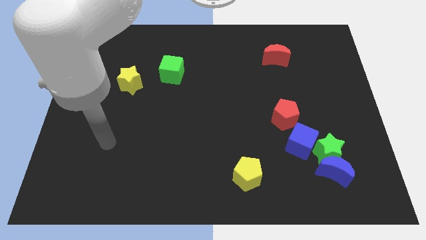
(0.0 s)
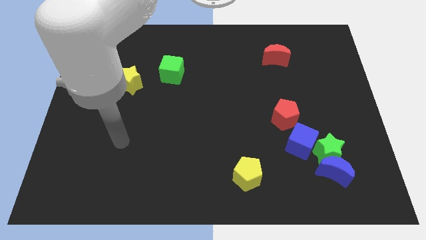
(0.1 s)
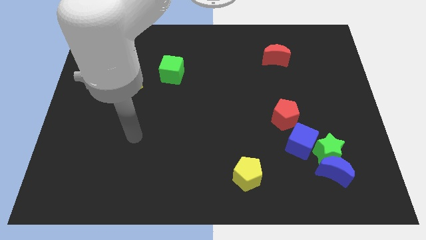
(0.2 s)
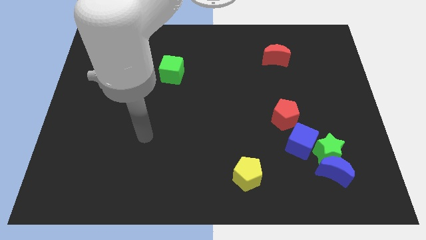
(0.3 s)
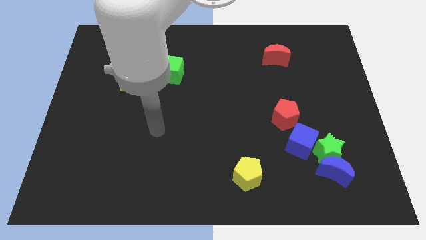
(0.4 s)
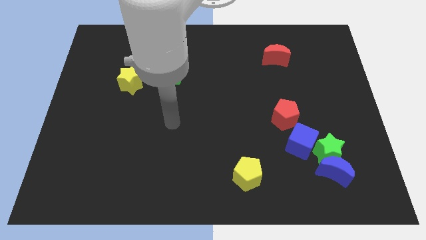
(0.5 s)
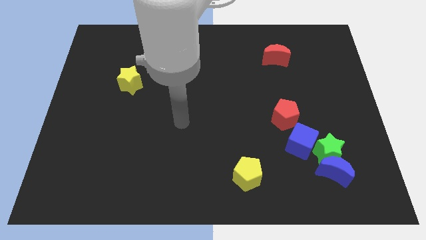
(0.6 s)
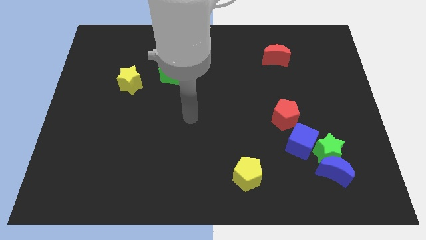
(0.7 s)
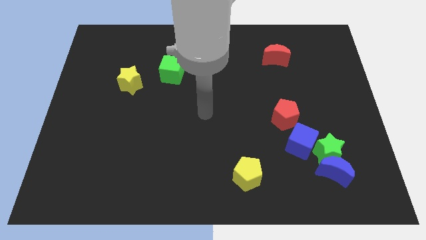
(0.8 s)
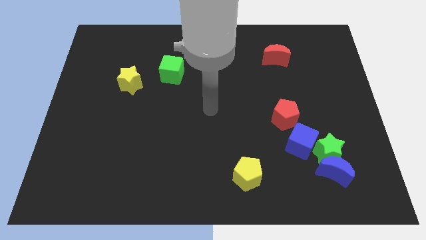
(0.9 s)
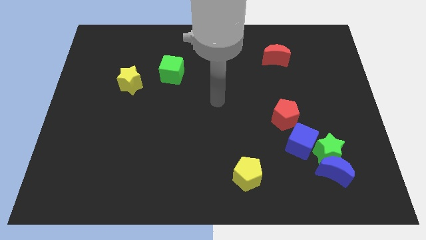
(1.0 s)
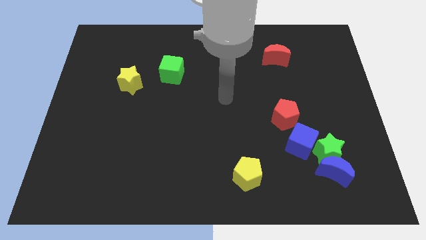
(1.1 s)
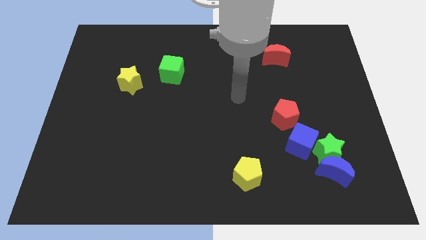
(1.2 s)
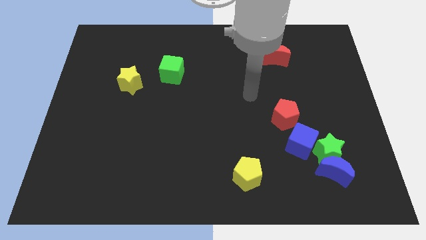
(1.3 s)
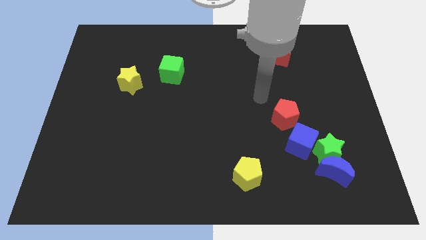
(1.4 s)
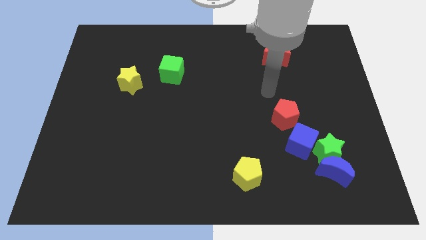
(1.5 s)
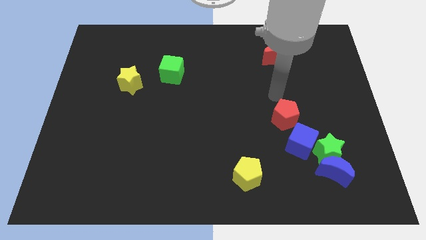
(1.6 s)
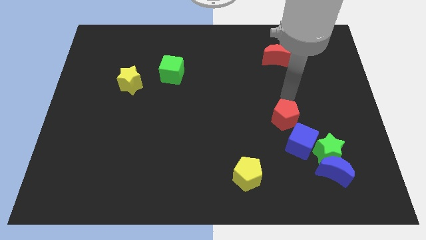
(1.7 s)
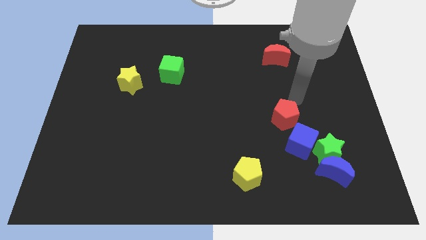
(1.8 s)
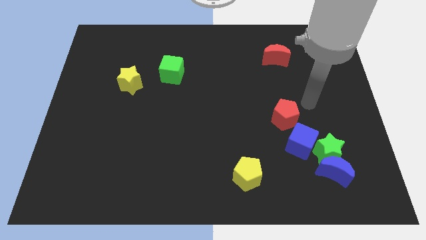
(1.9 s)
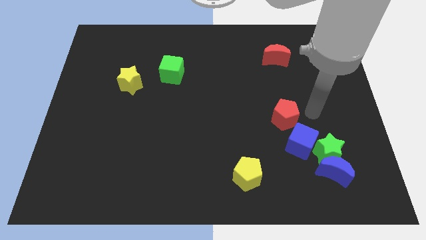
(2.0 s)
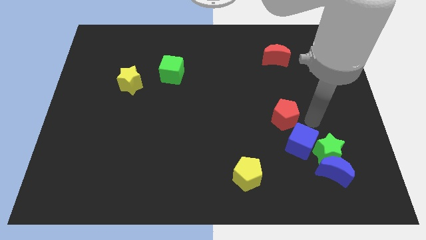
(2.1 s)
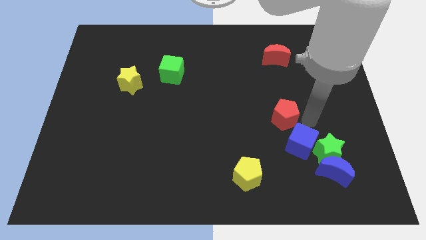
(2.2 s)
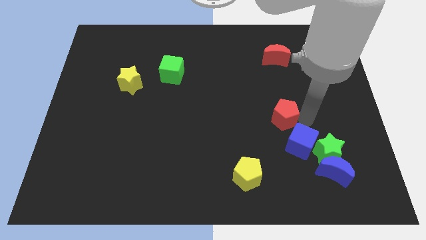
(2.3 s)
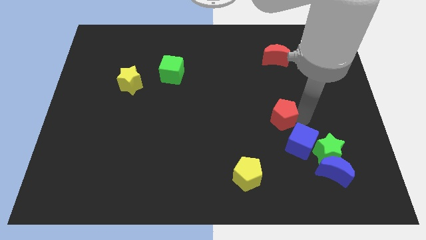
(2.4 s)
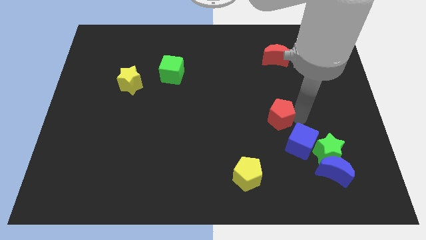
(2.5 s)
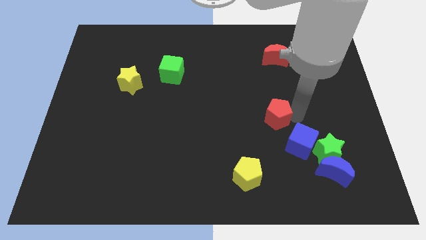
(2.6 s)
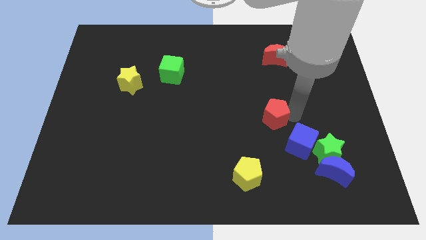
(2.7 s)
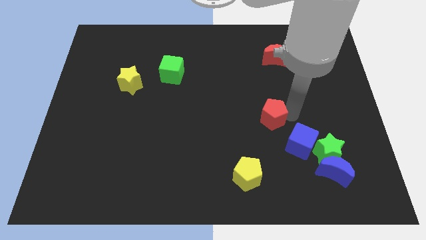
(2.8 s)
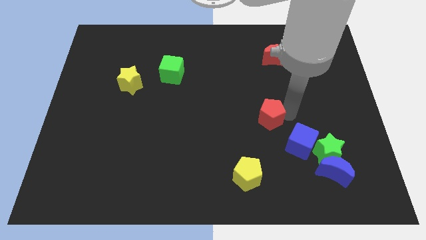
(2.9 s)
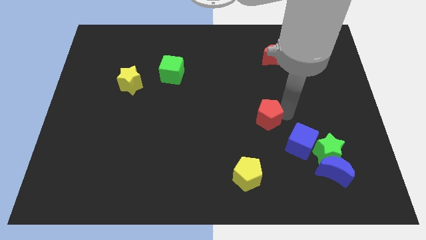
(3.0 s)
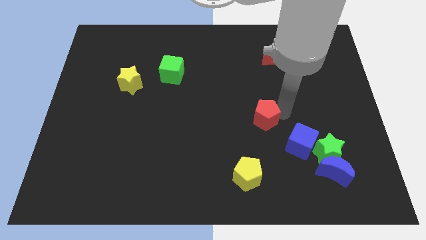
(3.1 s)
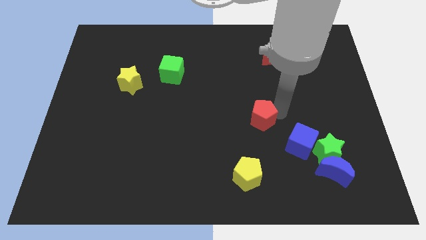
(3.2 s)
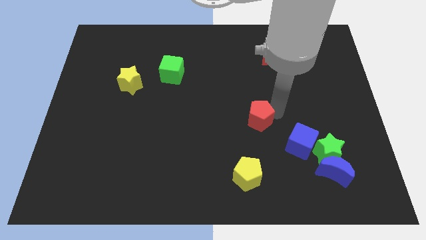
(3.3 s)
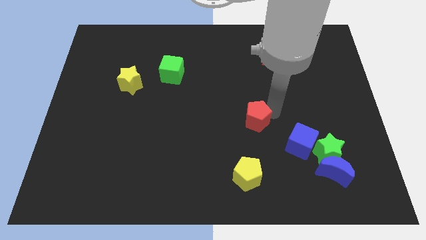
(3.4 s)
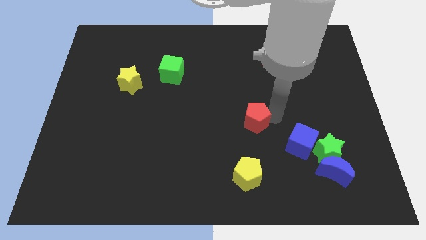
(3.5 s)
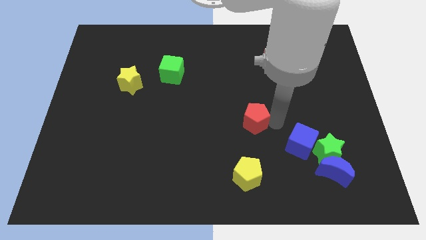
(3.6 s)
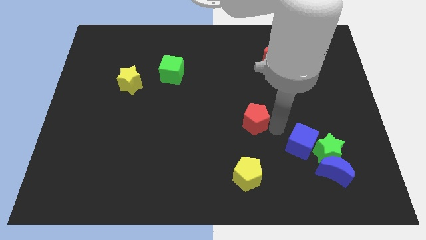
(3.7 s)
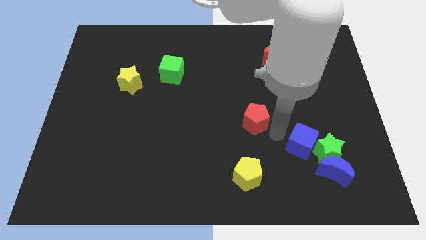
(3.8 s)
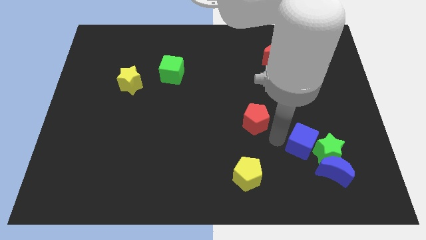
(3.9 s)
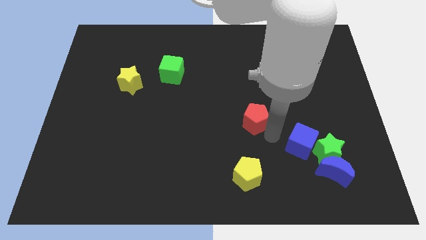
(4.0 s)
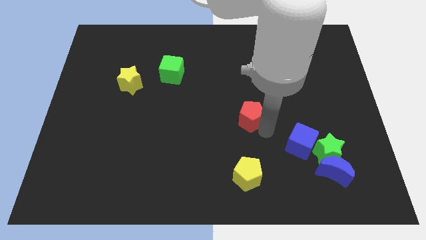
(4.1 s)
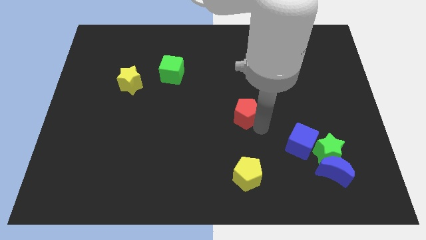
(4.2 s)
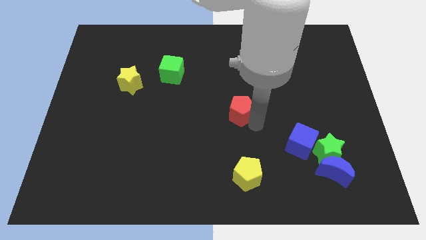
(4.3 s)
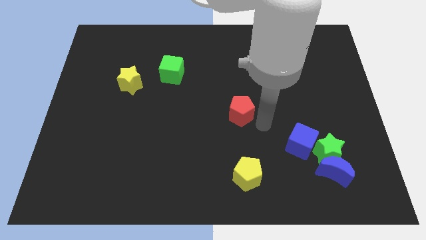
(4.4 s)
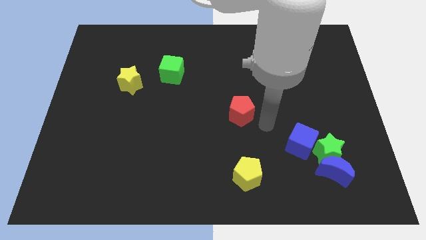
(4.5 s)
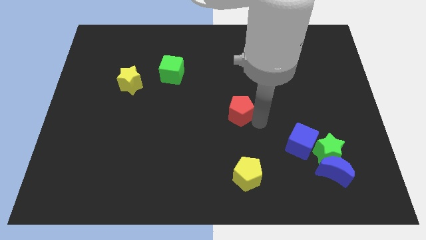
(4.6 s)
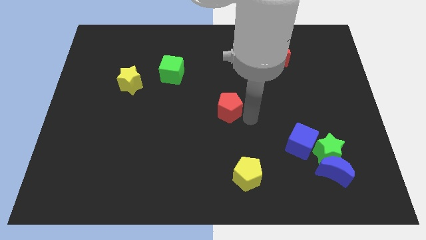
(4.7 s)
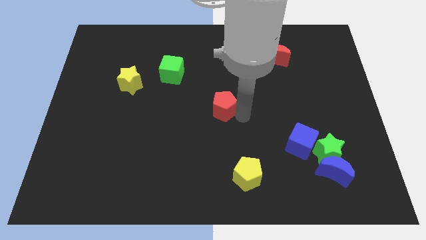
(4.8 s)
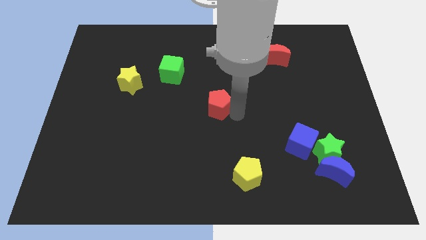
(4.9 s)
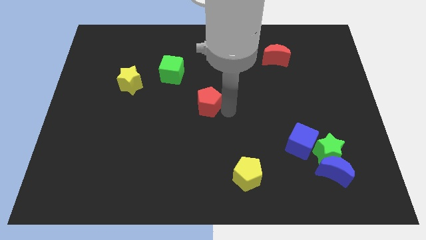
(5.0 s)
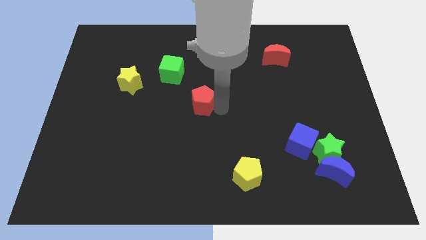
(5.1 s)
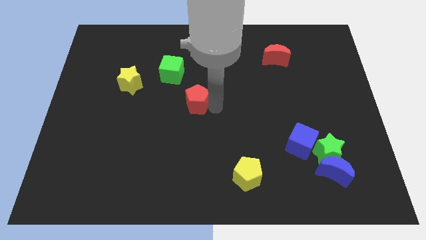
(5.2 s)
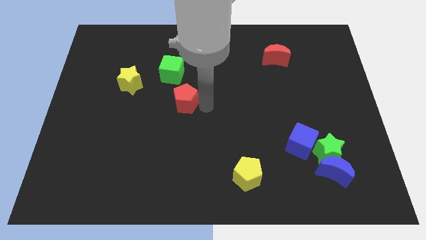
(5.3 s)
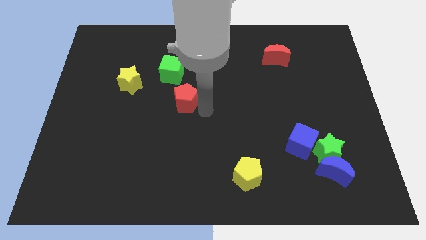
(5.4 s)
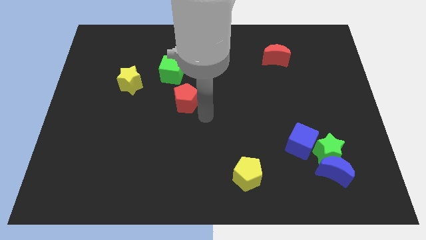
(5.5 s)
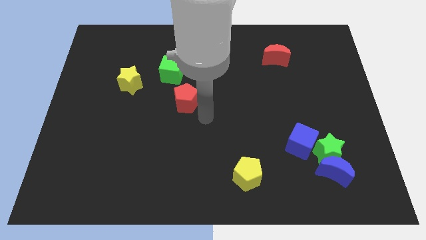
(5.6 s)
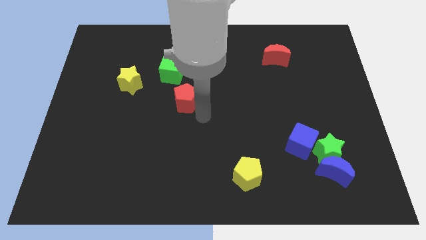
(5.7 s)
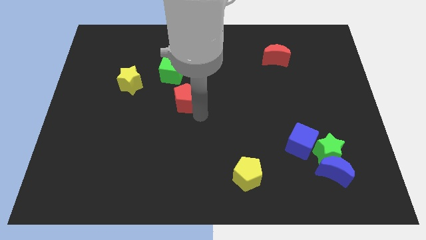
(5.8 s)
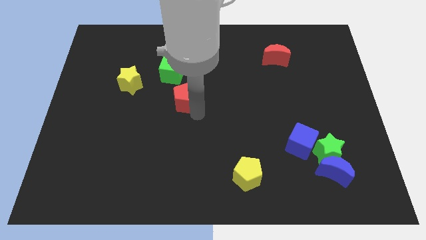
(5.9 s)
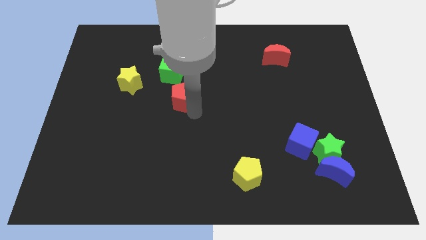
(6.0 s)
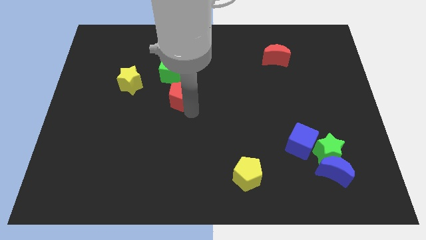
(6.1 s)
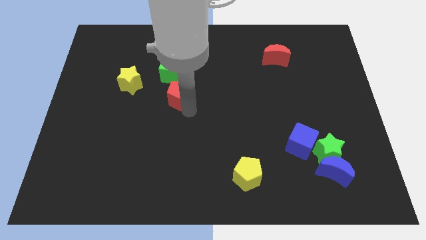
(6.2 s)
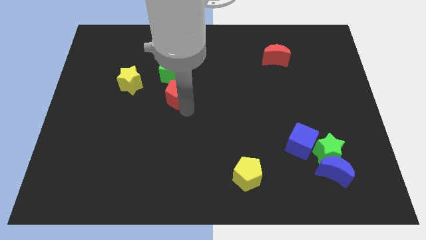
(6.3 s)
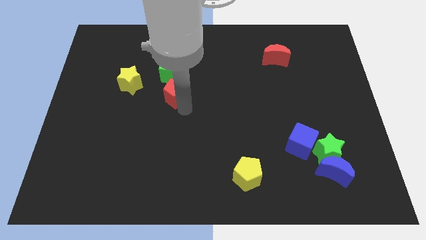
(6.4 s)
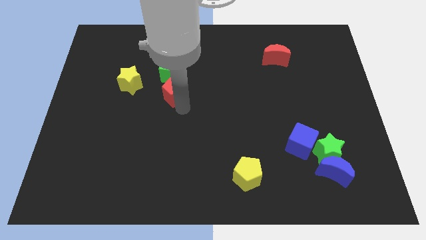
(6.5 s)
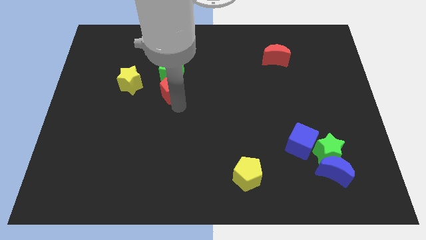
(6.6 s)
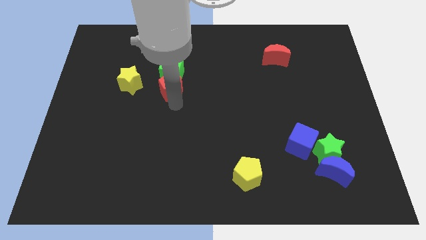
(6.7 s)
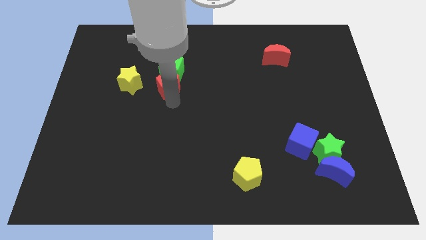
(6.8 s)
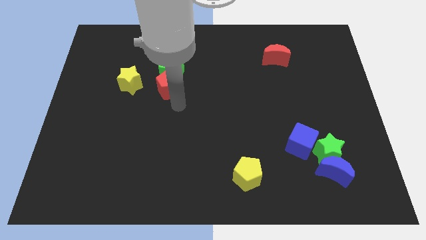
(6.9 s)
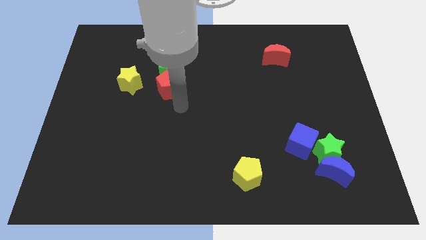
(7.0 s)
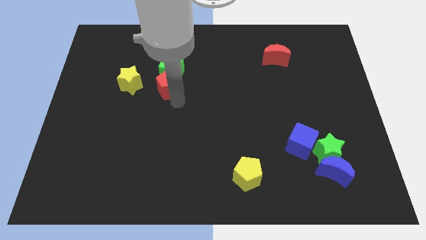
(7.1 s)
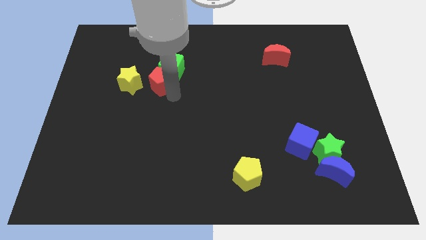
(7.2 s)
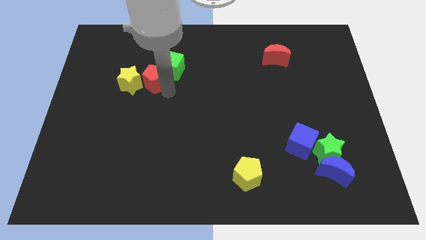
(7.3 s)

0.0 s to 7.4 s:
move the red pentagon to the top right side of the yellow star

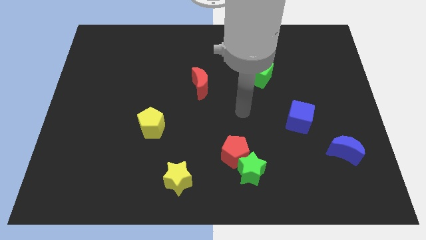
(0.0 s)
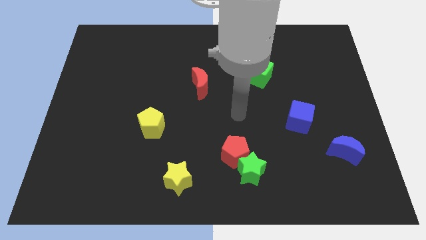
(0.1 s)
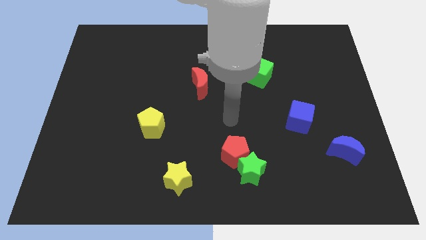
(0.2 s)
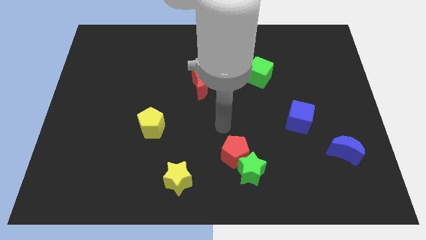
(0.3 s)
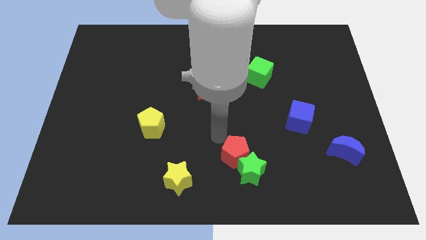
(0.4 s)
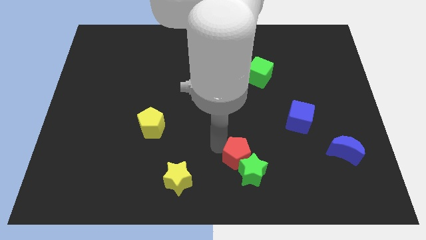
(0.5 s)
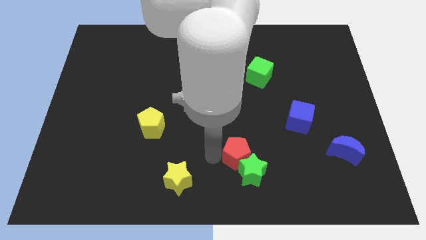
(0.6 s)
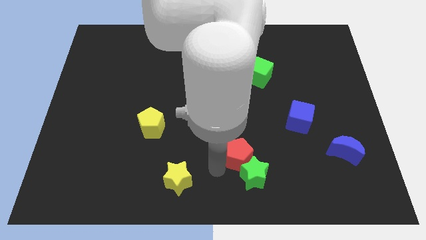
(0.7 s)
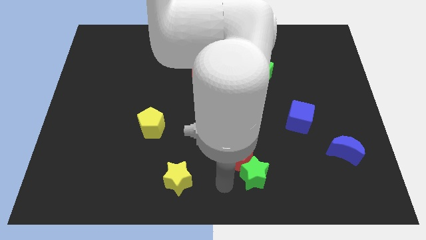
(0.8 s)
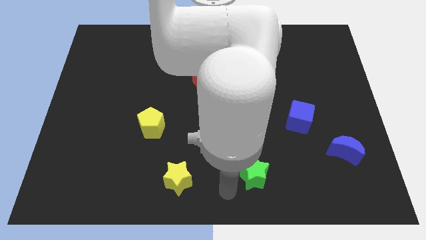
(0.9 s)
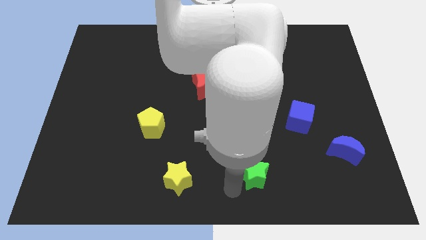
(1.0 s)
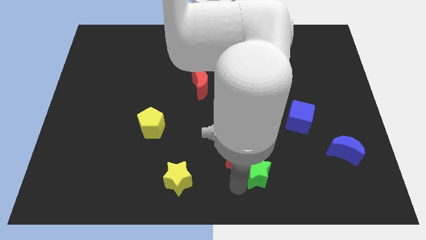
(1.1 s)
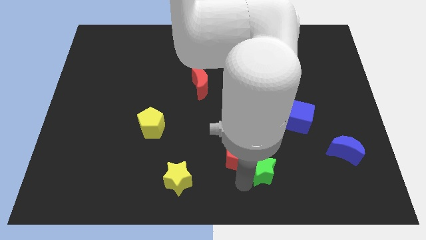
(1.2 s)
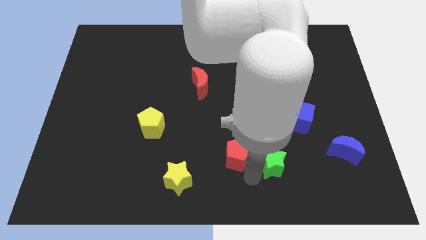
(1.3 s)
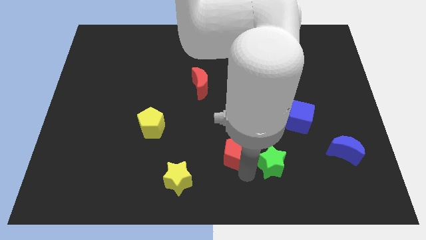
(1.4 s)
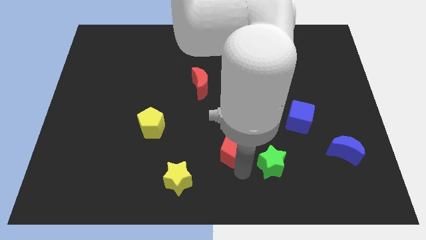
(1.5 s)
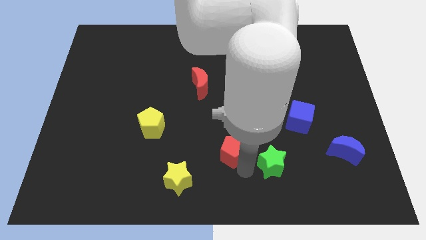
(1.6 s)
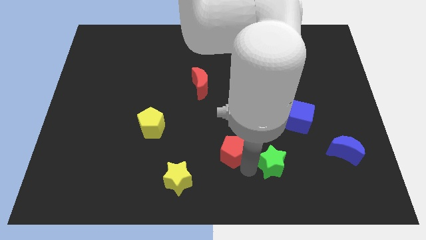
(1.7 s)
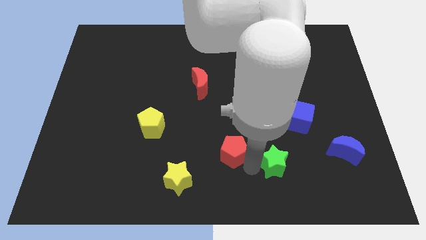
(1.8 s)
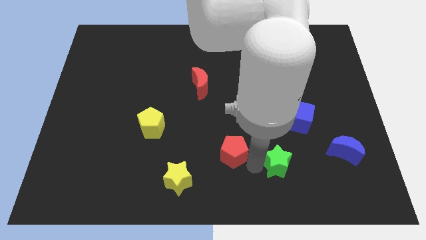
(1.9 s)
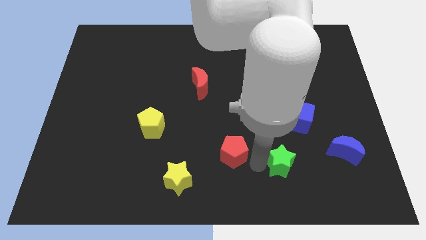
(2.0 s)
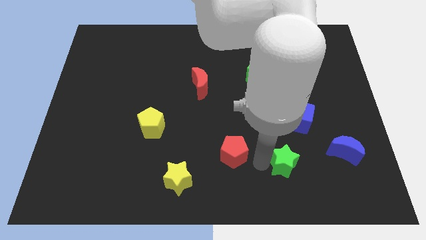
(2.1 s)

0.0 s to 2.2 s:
push the green star to the bottom side of the blue cube
